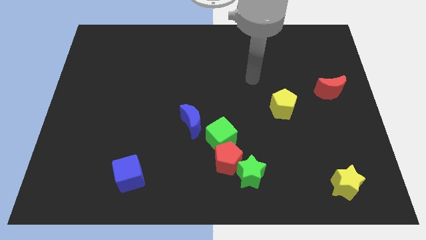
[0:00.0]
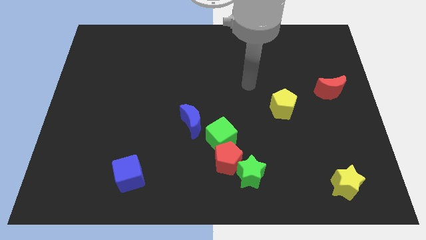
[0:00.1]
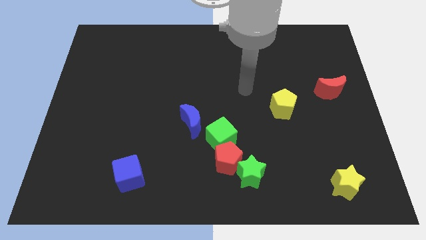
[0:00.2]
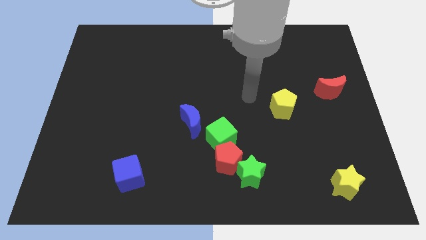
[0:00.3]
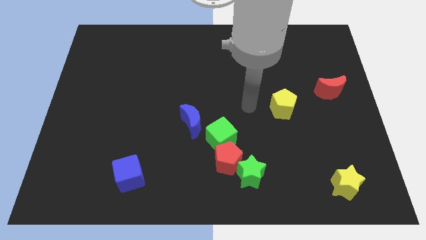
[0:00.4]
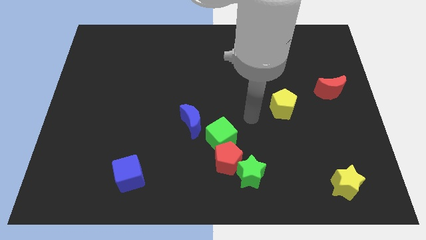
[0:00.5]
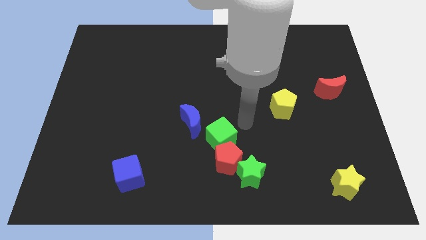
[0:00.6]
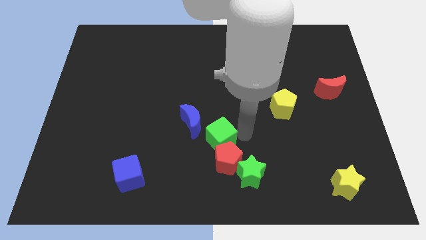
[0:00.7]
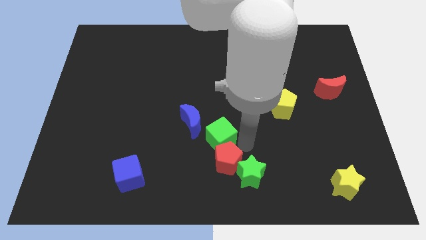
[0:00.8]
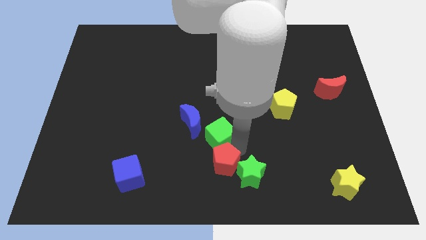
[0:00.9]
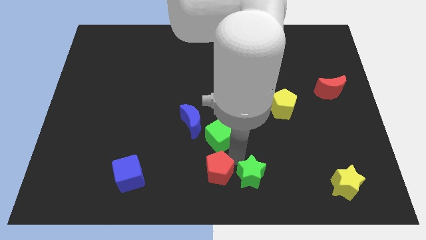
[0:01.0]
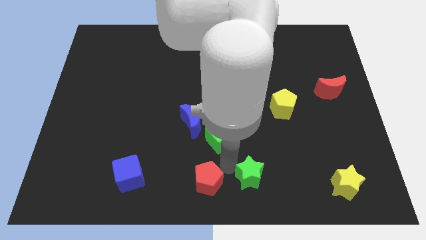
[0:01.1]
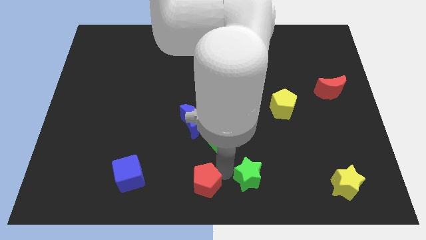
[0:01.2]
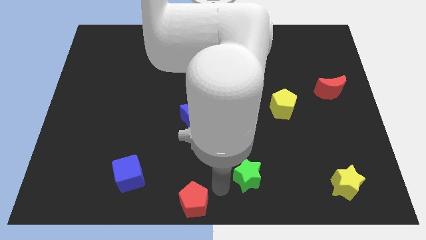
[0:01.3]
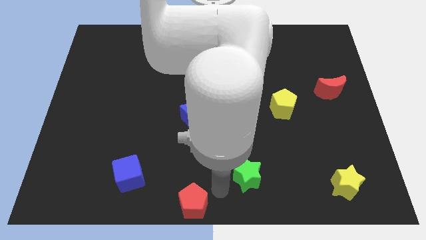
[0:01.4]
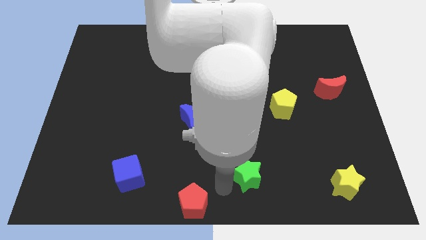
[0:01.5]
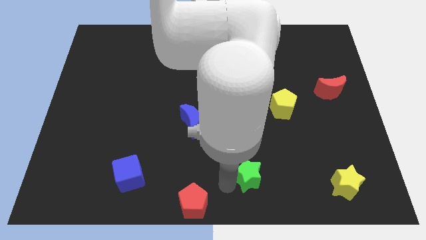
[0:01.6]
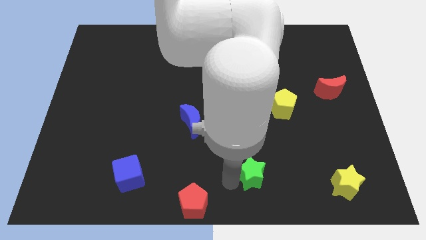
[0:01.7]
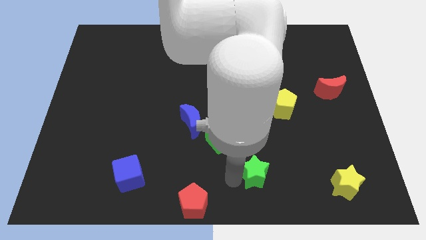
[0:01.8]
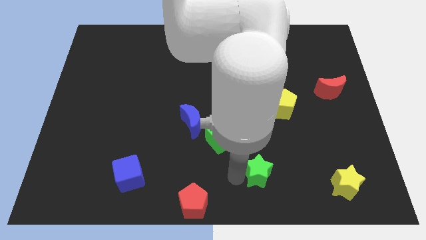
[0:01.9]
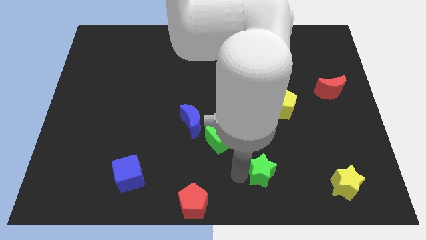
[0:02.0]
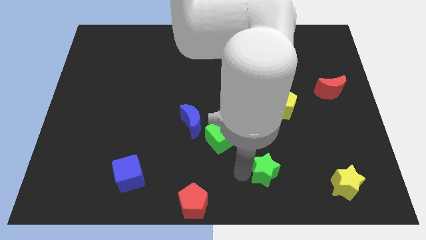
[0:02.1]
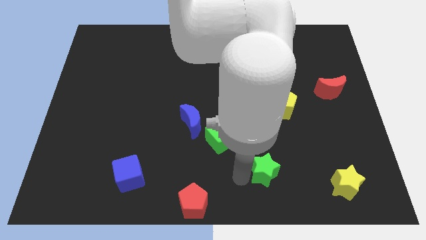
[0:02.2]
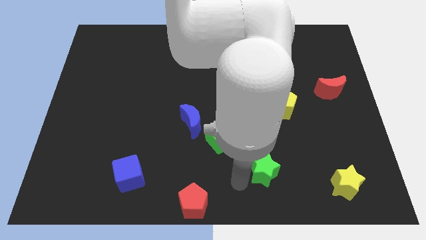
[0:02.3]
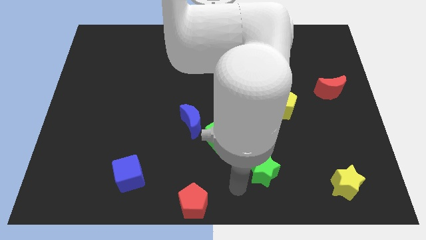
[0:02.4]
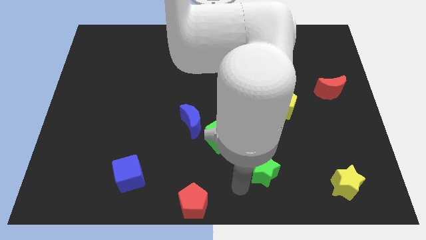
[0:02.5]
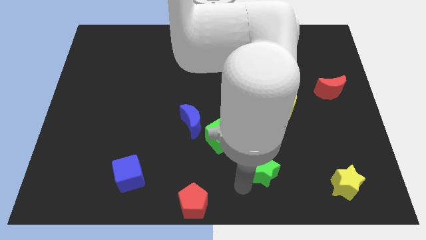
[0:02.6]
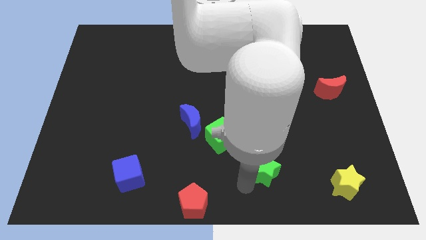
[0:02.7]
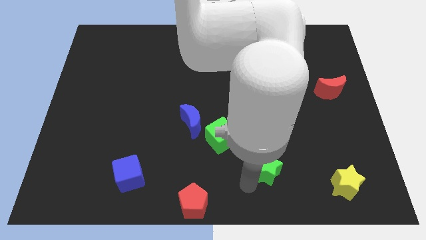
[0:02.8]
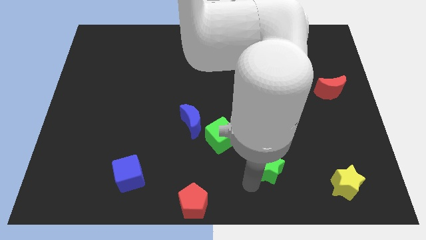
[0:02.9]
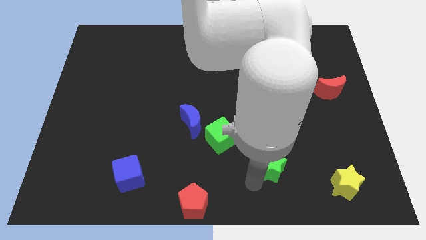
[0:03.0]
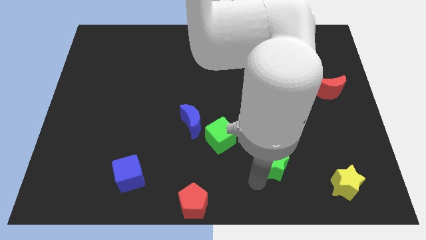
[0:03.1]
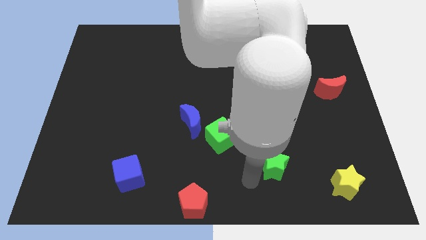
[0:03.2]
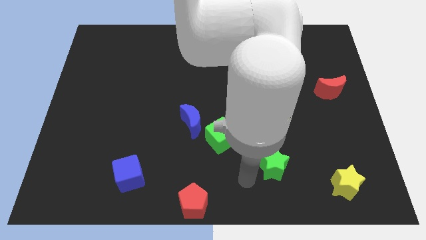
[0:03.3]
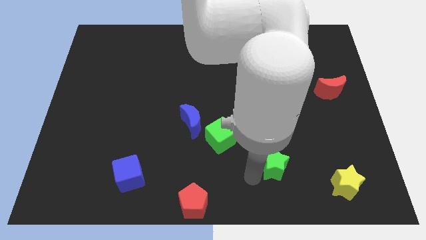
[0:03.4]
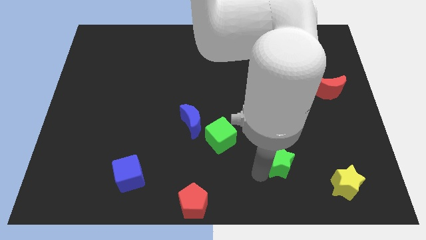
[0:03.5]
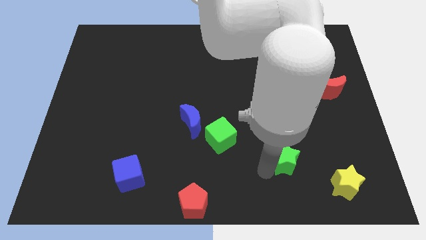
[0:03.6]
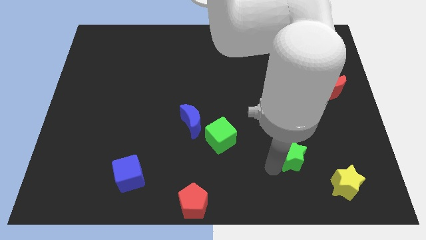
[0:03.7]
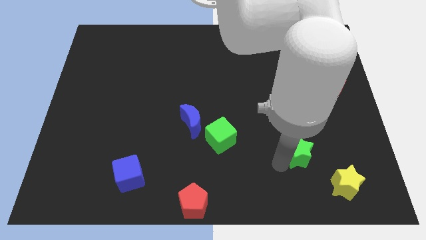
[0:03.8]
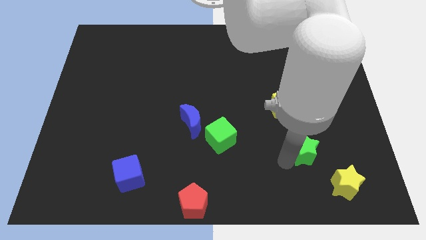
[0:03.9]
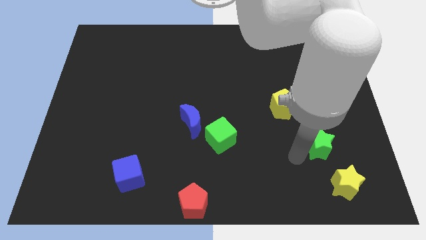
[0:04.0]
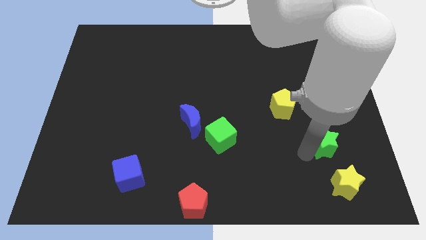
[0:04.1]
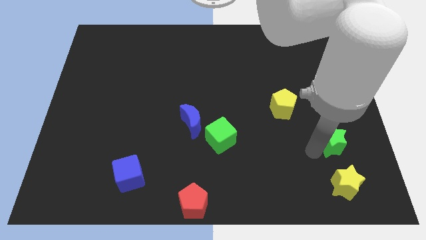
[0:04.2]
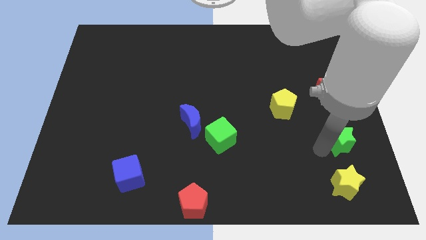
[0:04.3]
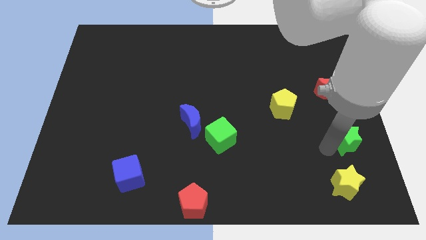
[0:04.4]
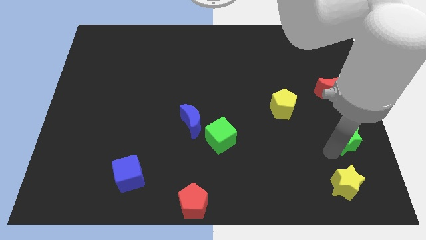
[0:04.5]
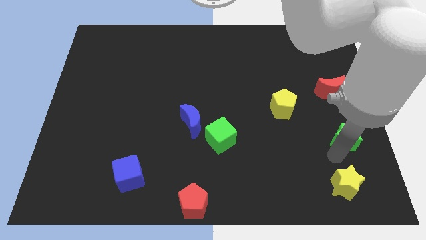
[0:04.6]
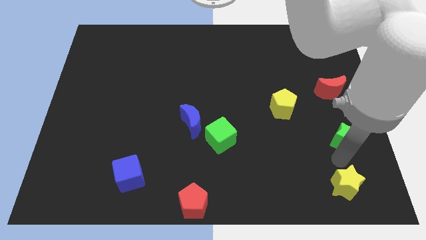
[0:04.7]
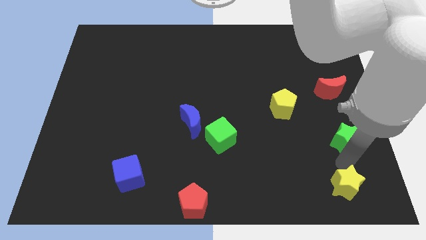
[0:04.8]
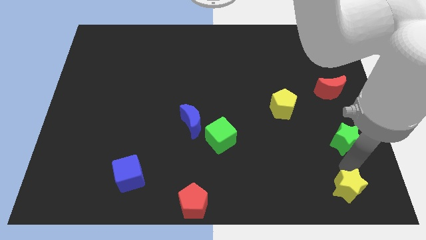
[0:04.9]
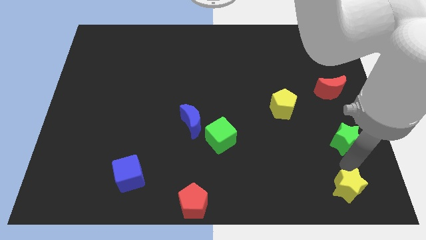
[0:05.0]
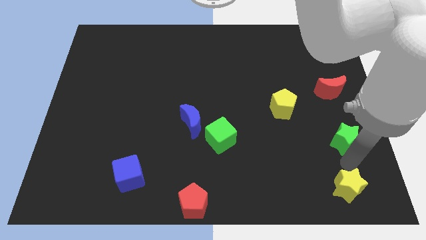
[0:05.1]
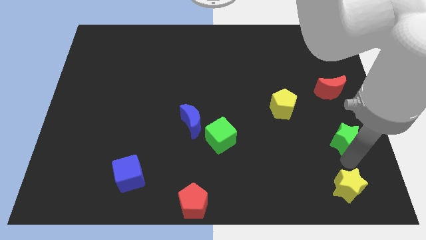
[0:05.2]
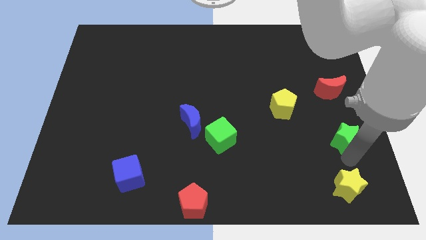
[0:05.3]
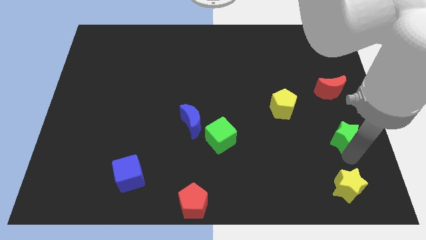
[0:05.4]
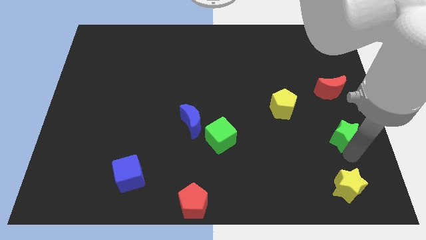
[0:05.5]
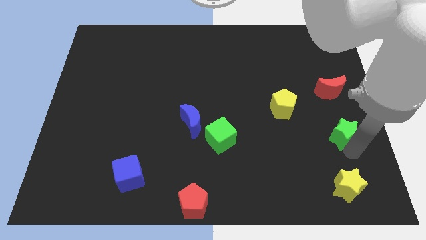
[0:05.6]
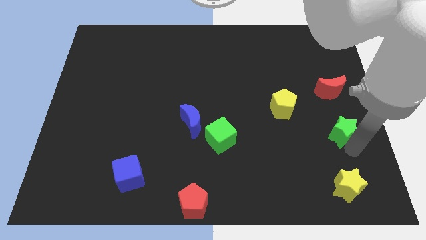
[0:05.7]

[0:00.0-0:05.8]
push the green star to the right side
